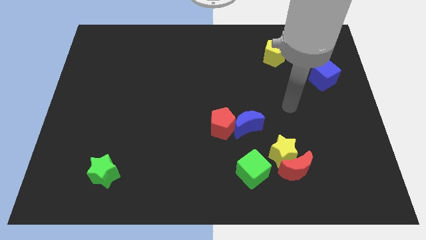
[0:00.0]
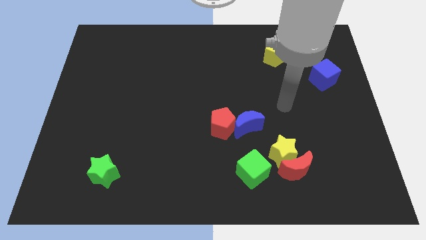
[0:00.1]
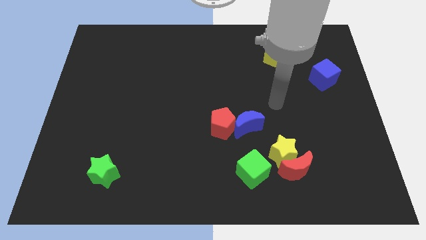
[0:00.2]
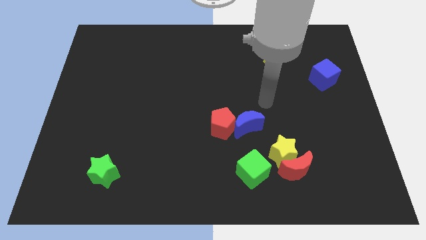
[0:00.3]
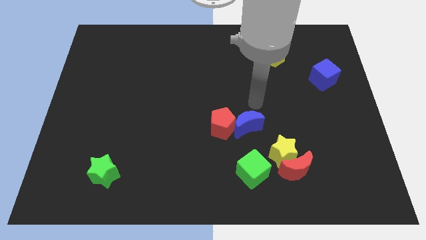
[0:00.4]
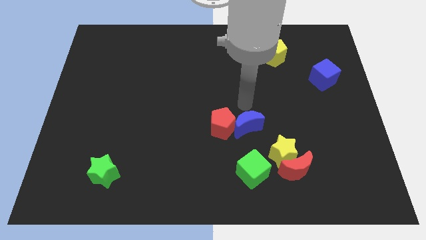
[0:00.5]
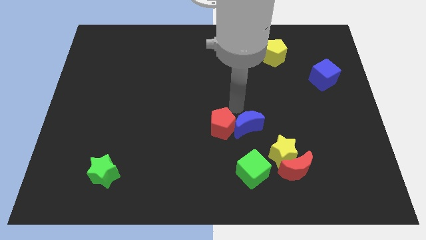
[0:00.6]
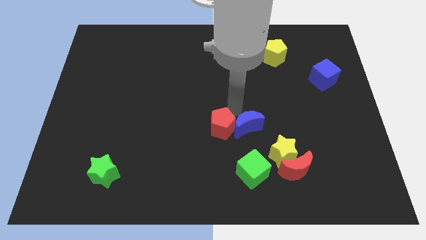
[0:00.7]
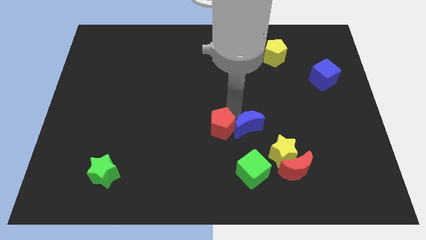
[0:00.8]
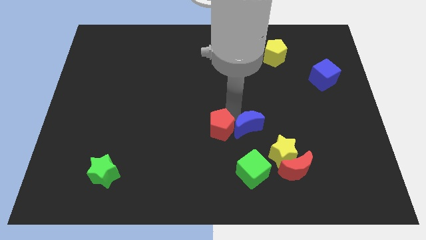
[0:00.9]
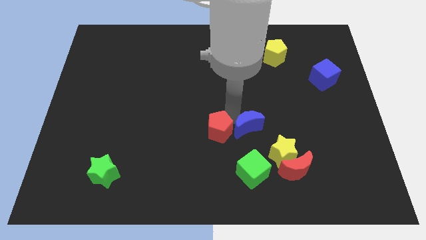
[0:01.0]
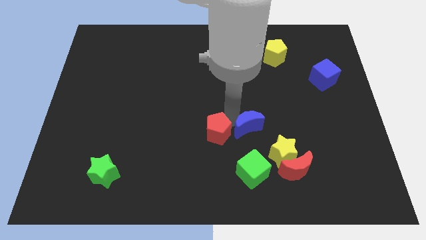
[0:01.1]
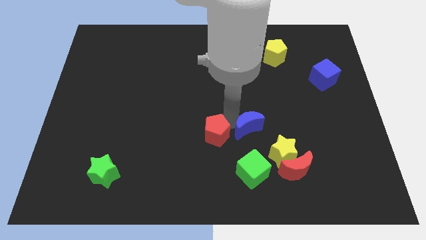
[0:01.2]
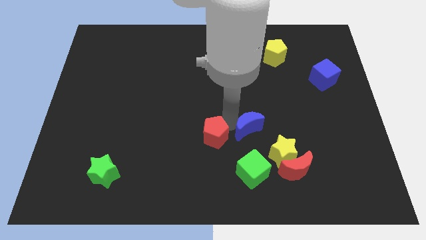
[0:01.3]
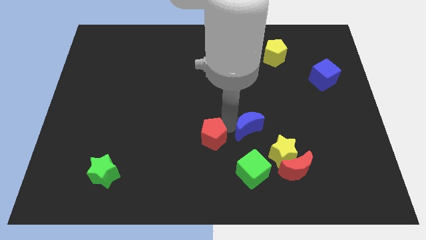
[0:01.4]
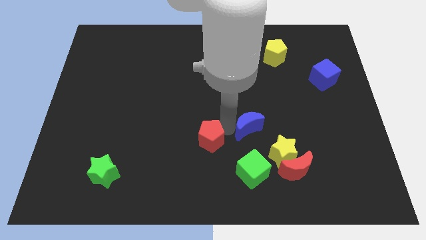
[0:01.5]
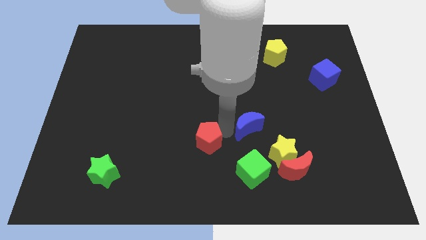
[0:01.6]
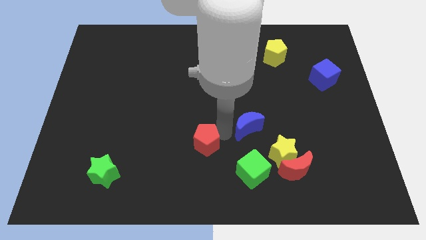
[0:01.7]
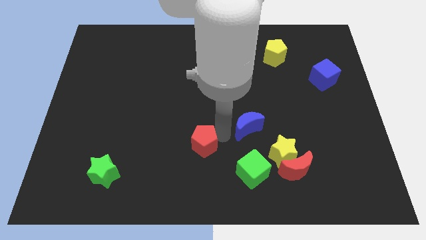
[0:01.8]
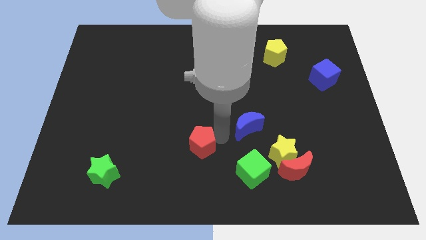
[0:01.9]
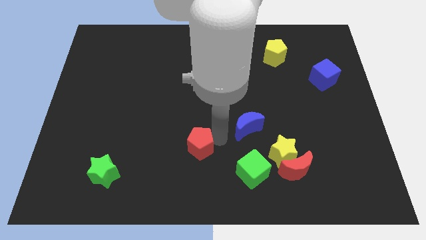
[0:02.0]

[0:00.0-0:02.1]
slightly push the red pentagon down and to the left

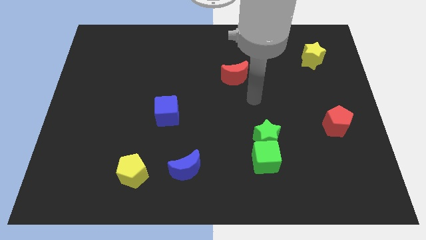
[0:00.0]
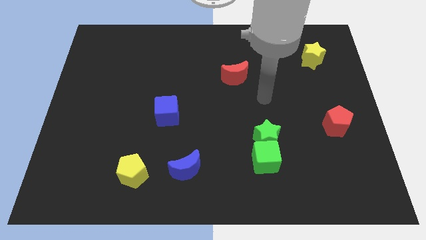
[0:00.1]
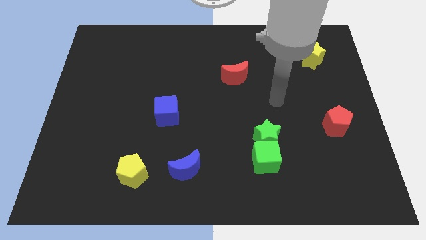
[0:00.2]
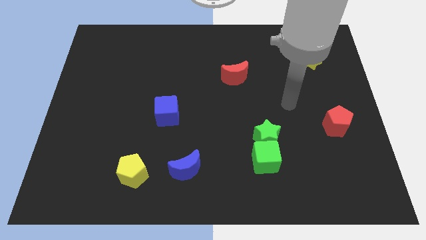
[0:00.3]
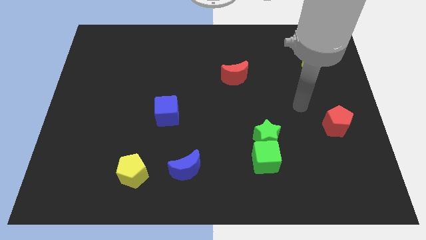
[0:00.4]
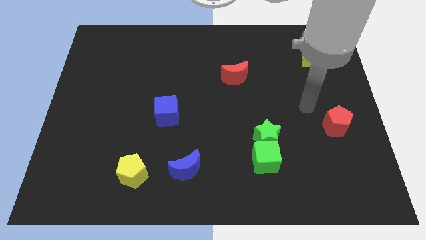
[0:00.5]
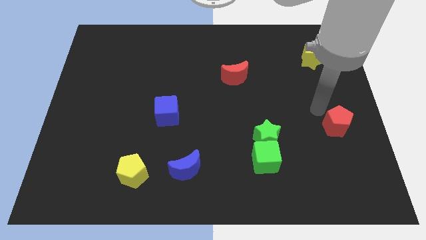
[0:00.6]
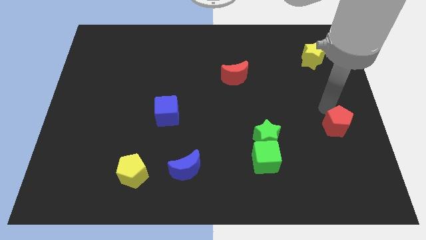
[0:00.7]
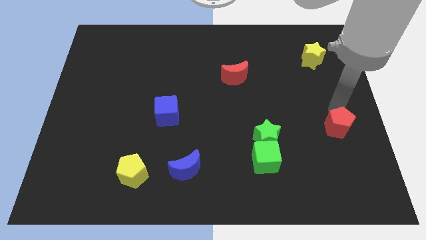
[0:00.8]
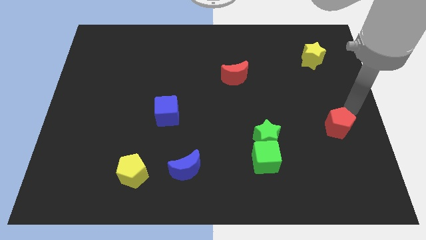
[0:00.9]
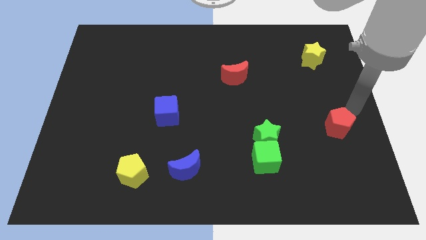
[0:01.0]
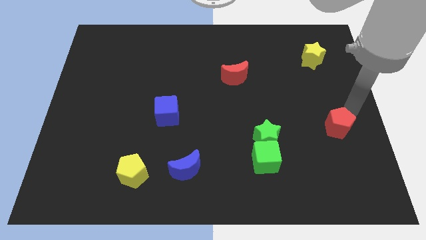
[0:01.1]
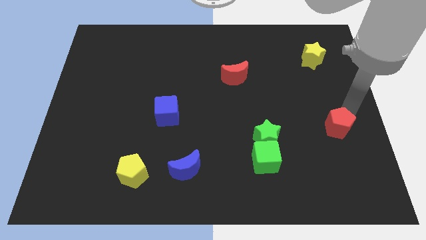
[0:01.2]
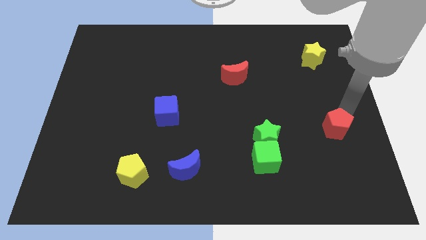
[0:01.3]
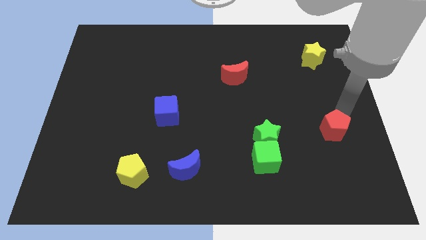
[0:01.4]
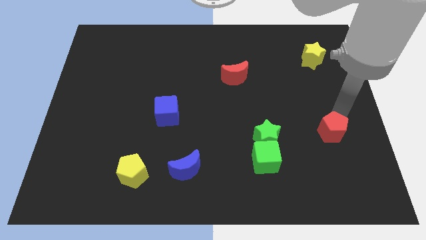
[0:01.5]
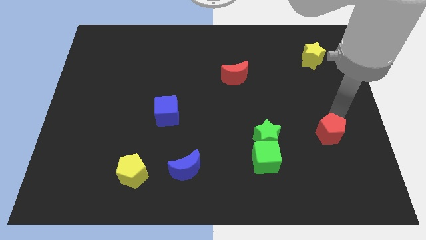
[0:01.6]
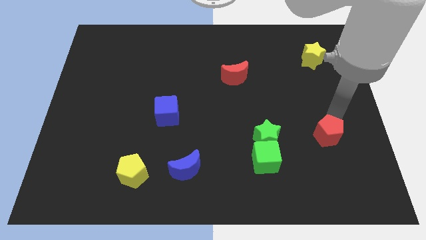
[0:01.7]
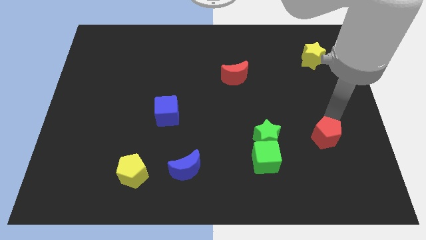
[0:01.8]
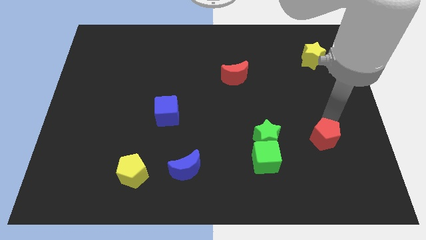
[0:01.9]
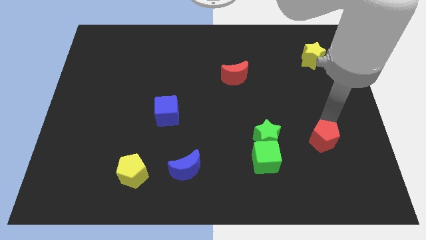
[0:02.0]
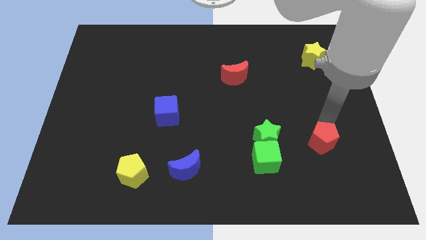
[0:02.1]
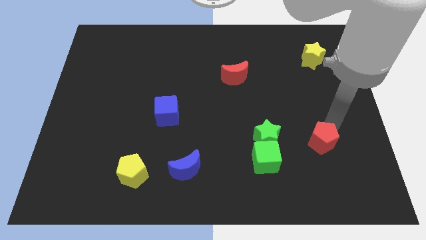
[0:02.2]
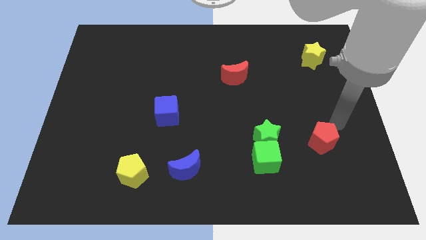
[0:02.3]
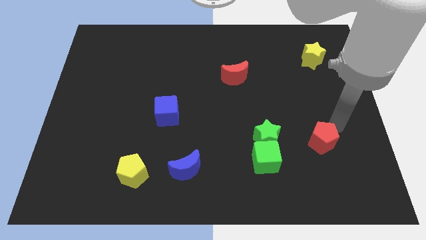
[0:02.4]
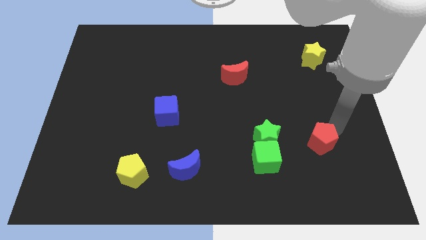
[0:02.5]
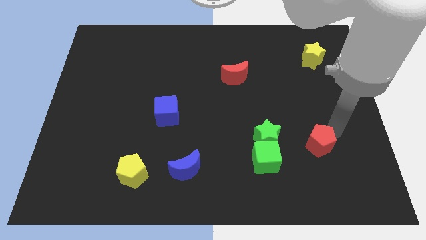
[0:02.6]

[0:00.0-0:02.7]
slide the red pentagon down and then left somewhat

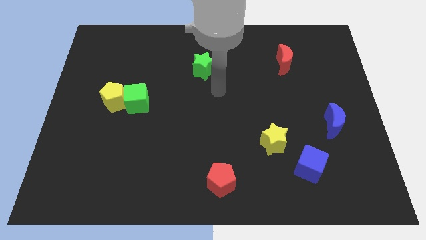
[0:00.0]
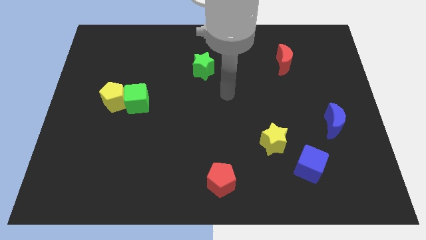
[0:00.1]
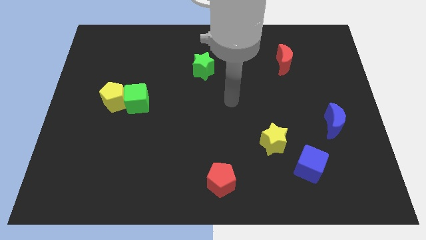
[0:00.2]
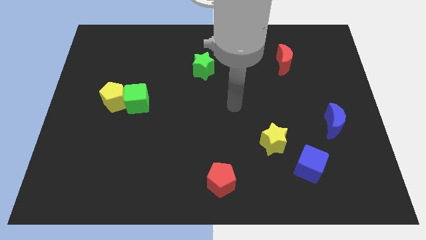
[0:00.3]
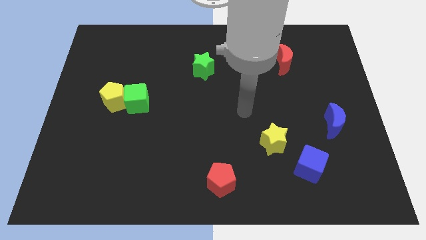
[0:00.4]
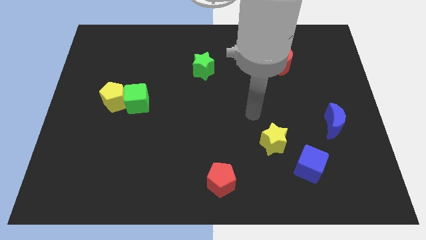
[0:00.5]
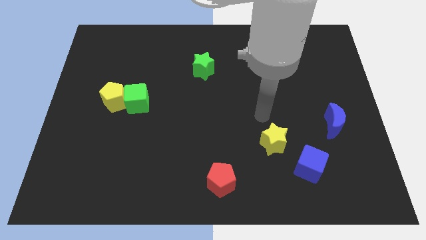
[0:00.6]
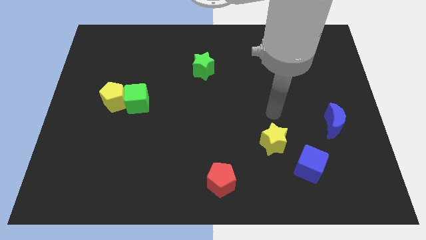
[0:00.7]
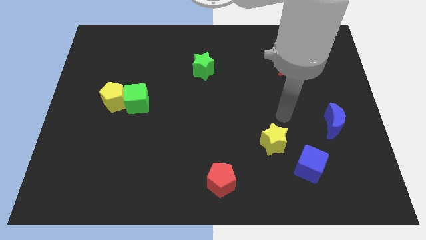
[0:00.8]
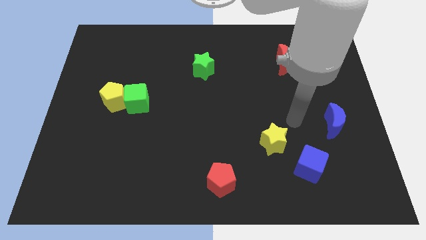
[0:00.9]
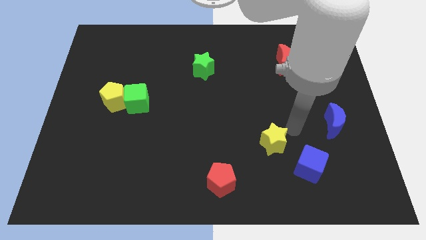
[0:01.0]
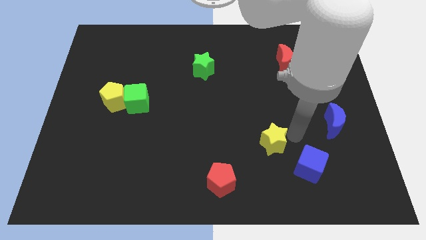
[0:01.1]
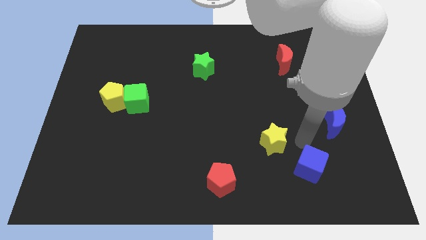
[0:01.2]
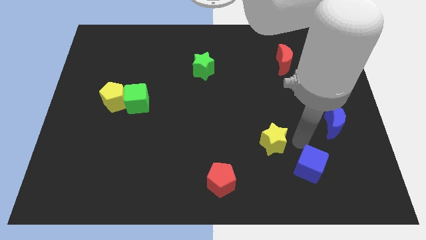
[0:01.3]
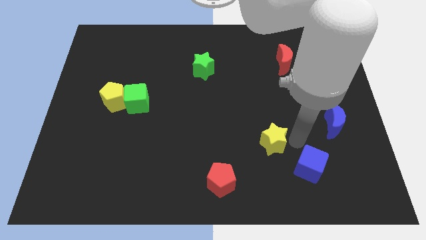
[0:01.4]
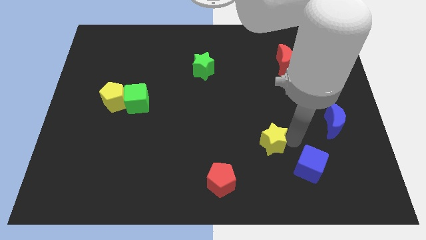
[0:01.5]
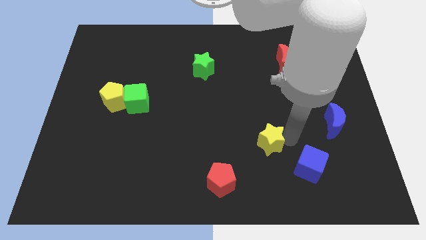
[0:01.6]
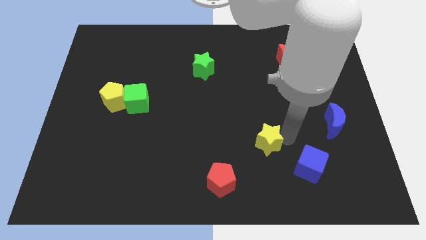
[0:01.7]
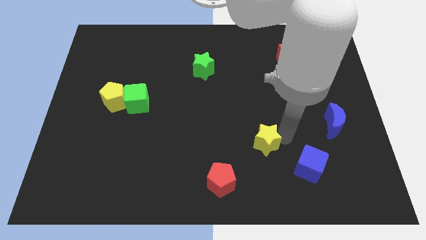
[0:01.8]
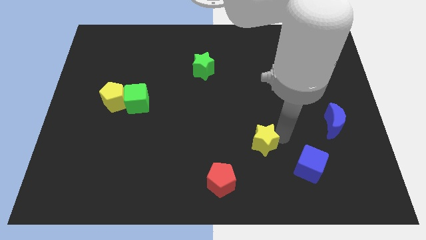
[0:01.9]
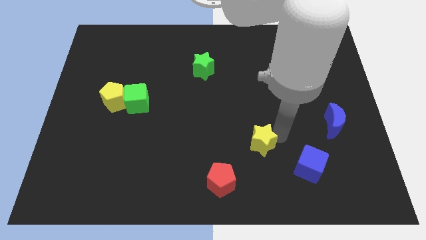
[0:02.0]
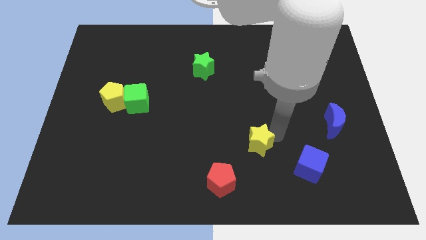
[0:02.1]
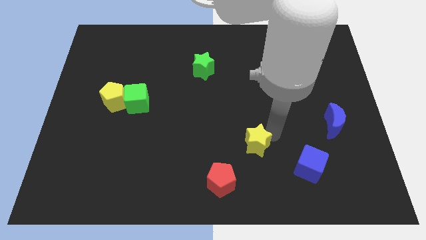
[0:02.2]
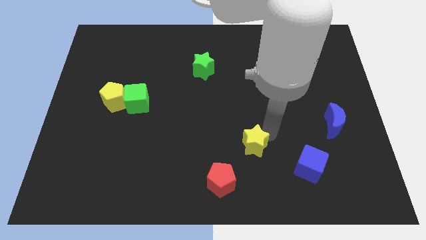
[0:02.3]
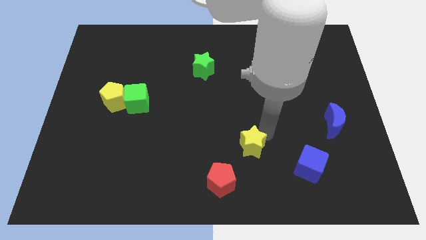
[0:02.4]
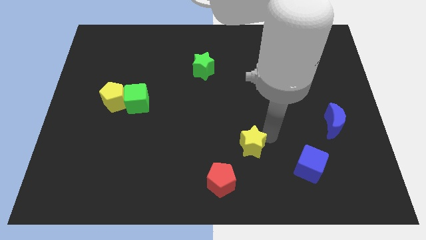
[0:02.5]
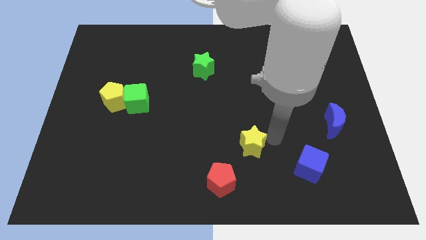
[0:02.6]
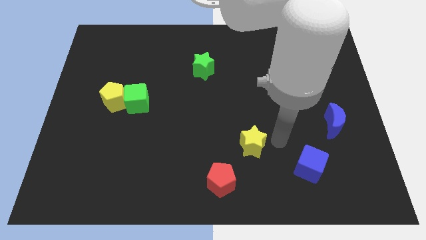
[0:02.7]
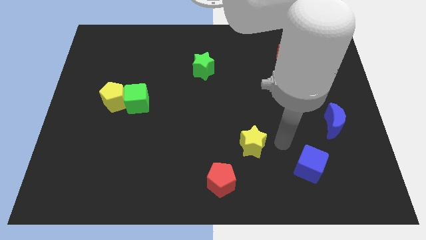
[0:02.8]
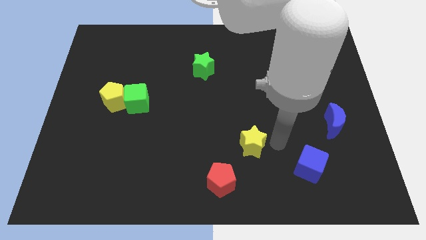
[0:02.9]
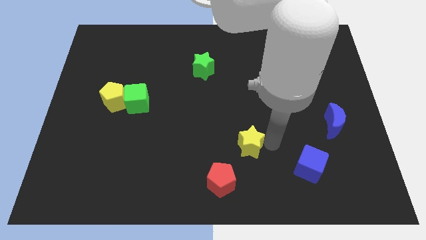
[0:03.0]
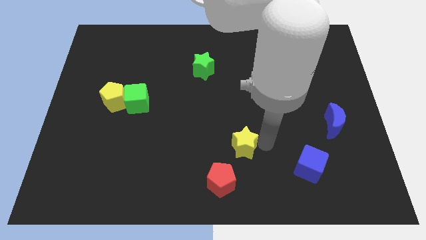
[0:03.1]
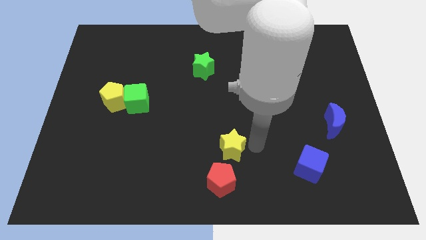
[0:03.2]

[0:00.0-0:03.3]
slightly push the yellow star to the left
